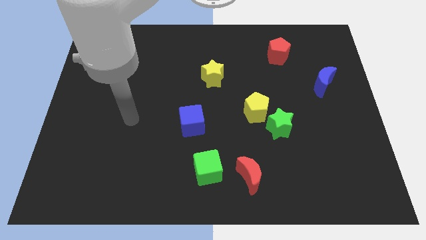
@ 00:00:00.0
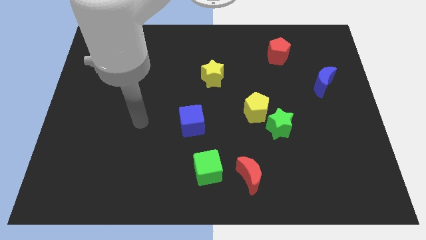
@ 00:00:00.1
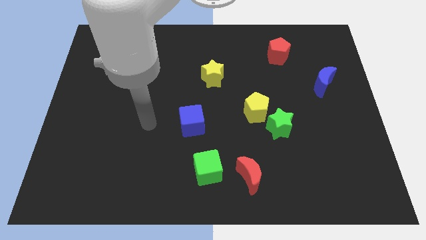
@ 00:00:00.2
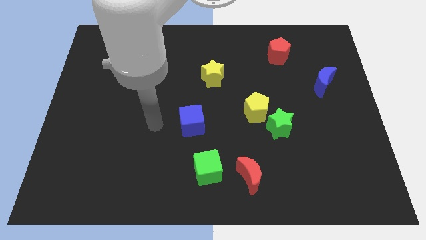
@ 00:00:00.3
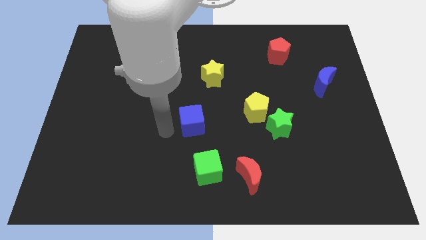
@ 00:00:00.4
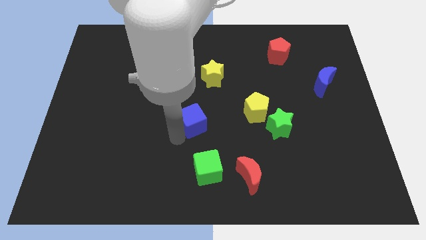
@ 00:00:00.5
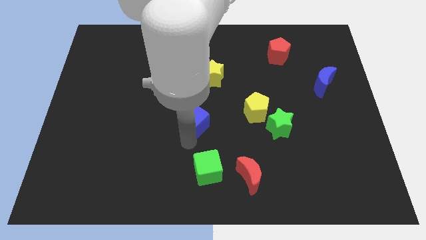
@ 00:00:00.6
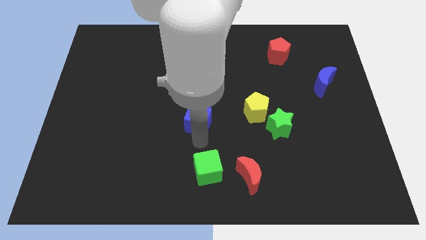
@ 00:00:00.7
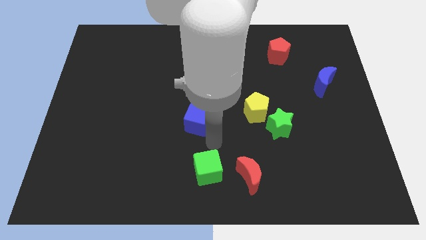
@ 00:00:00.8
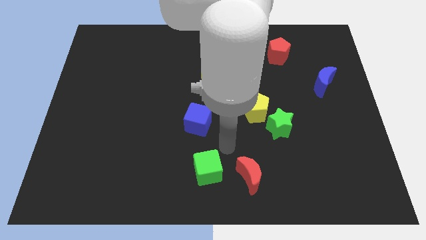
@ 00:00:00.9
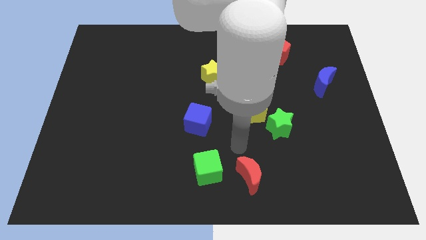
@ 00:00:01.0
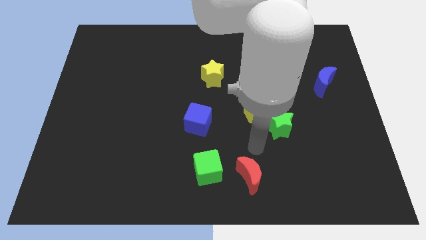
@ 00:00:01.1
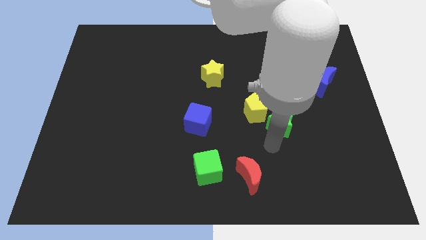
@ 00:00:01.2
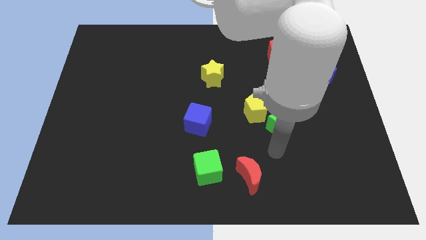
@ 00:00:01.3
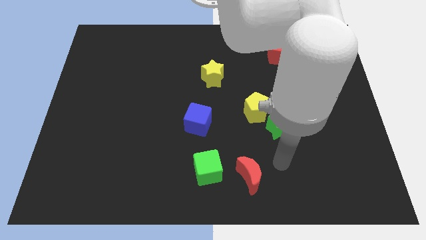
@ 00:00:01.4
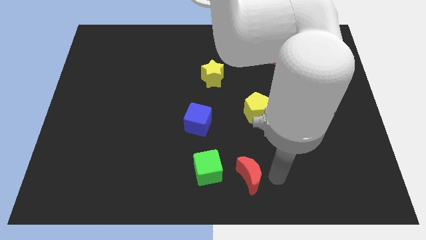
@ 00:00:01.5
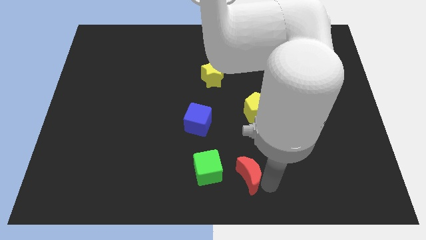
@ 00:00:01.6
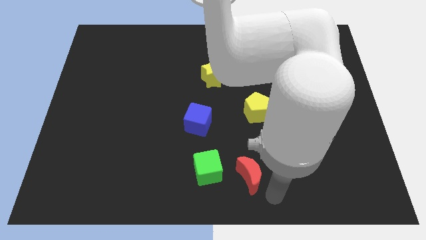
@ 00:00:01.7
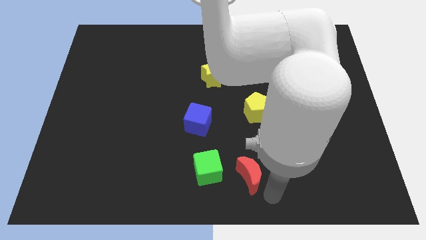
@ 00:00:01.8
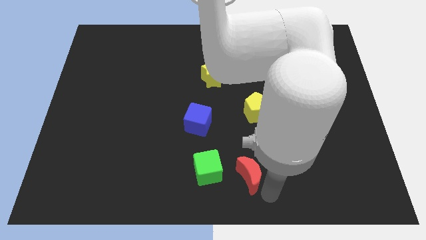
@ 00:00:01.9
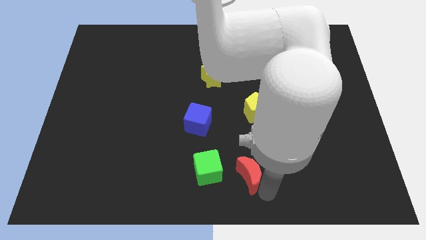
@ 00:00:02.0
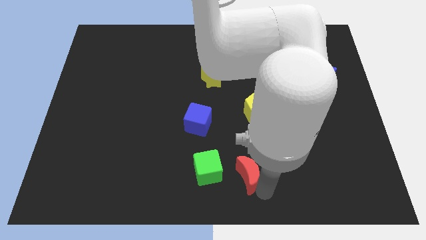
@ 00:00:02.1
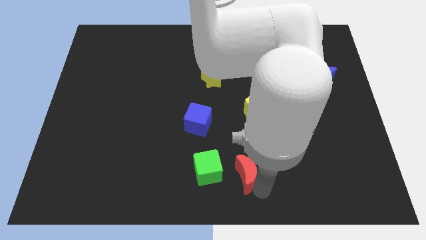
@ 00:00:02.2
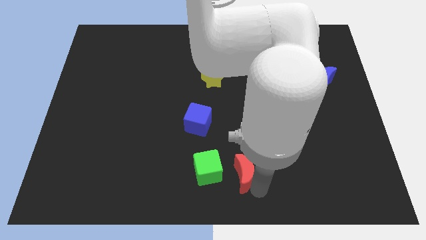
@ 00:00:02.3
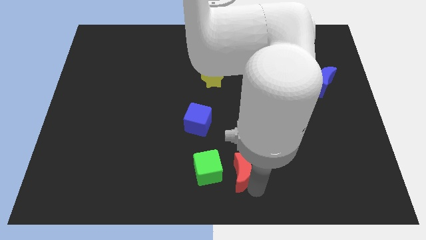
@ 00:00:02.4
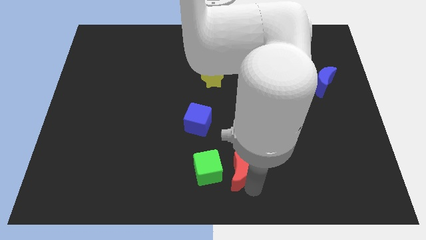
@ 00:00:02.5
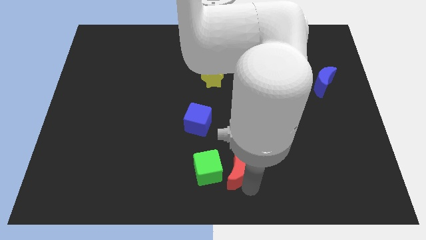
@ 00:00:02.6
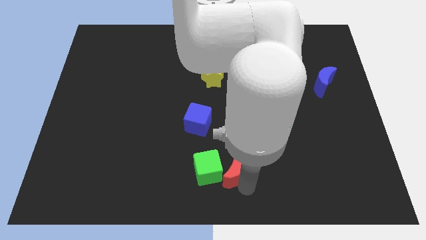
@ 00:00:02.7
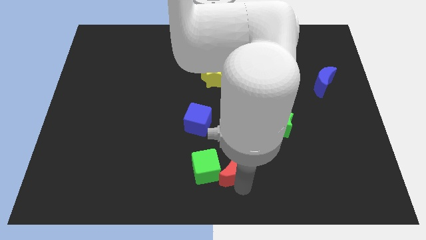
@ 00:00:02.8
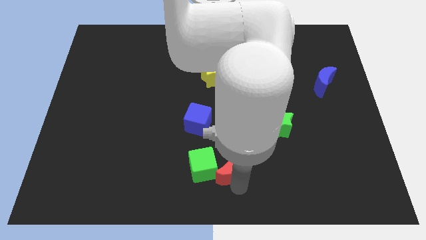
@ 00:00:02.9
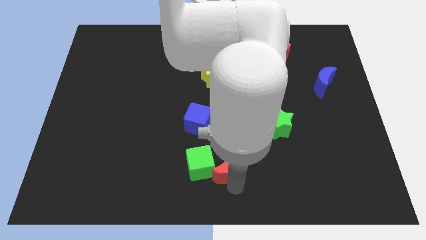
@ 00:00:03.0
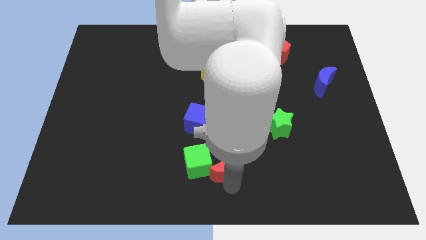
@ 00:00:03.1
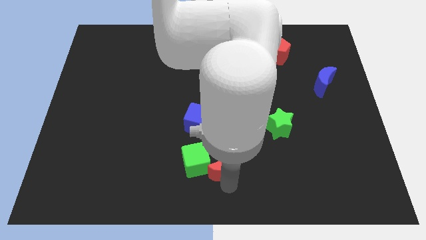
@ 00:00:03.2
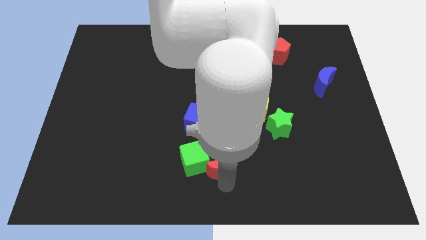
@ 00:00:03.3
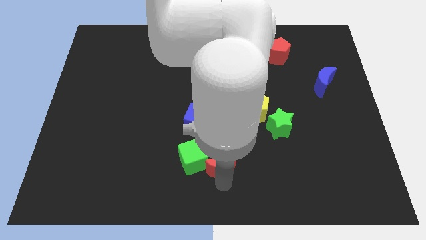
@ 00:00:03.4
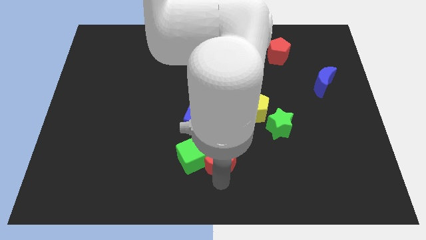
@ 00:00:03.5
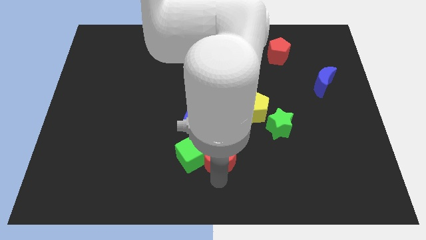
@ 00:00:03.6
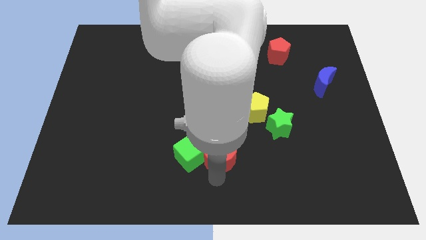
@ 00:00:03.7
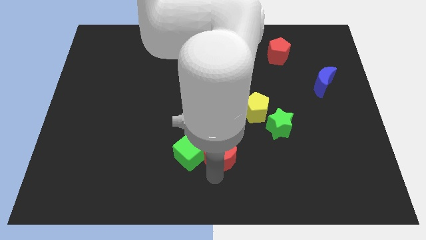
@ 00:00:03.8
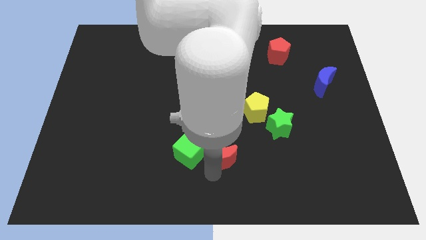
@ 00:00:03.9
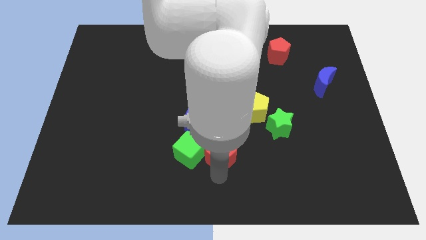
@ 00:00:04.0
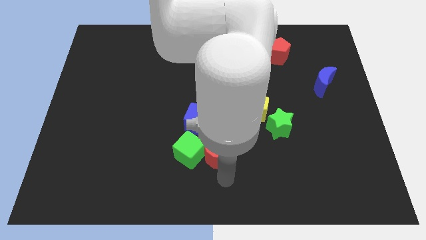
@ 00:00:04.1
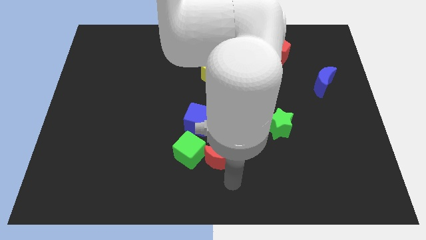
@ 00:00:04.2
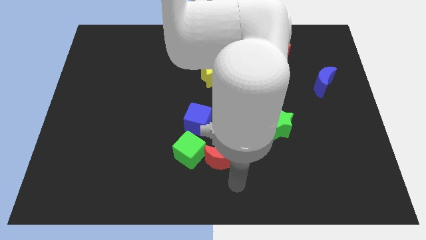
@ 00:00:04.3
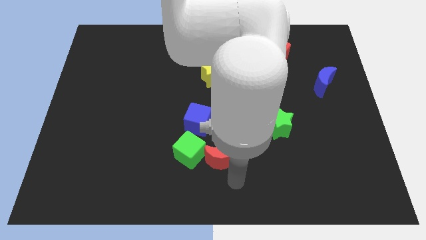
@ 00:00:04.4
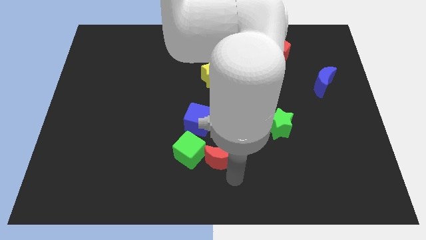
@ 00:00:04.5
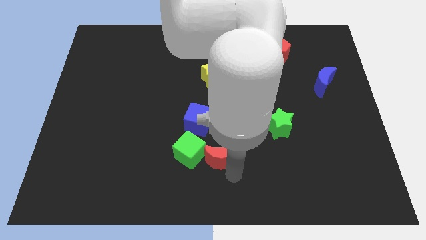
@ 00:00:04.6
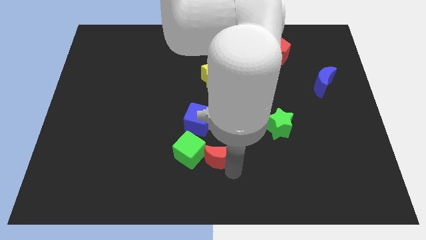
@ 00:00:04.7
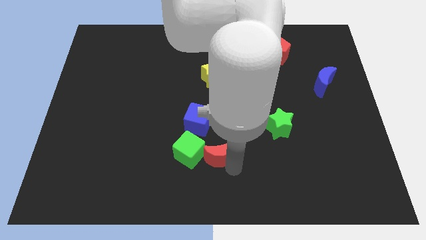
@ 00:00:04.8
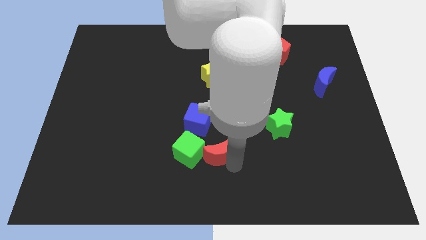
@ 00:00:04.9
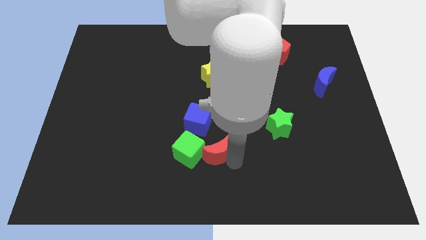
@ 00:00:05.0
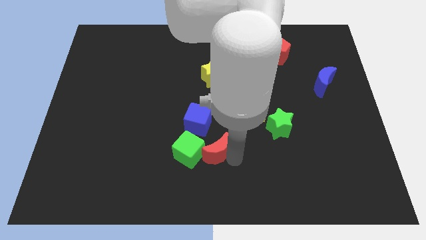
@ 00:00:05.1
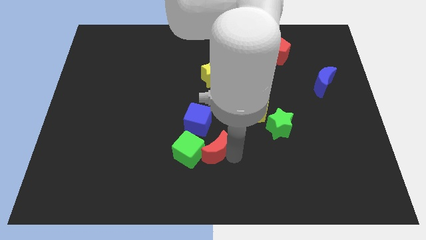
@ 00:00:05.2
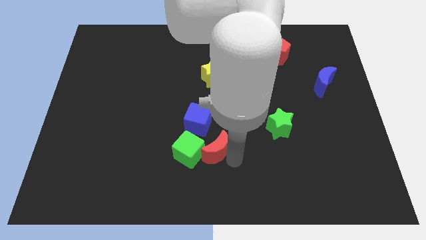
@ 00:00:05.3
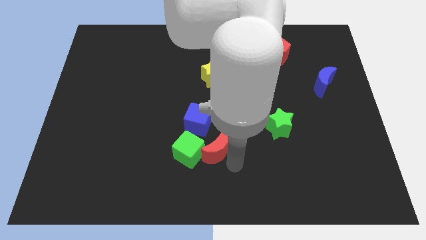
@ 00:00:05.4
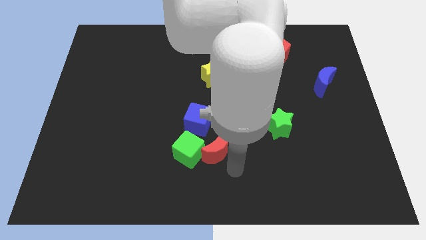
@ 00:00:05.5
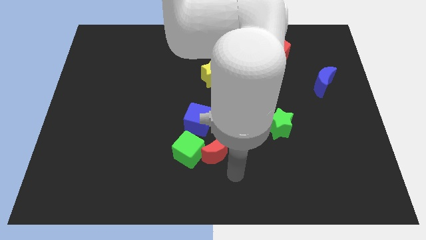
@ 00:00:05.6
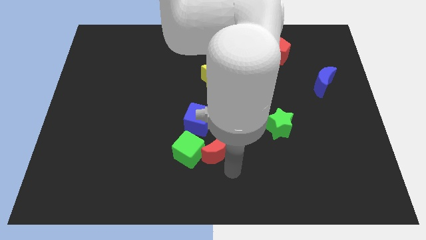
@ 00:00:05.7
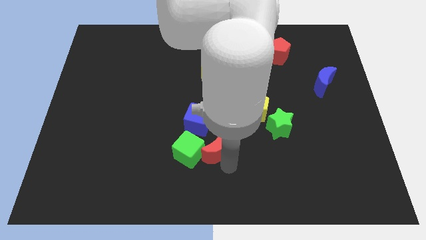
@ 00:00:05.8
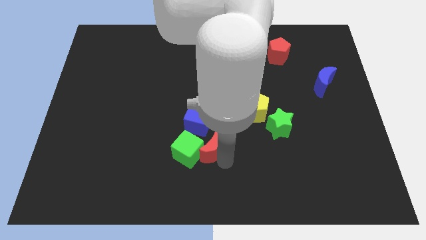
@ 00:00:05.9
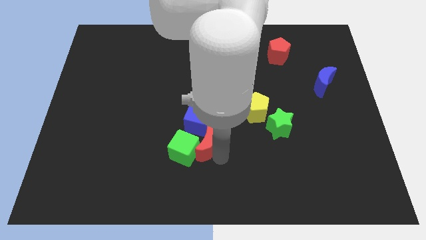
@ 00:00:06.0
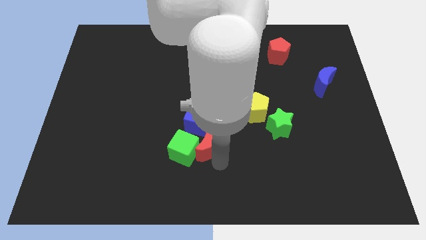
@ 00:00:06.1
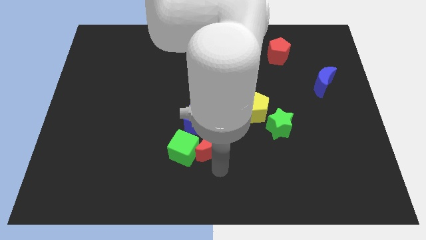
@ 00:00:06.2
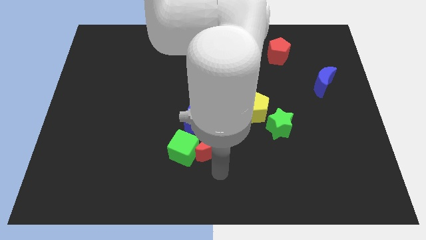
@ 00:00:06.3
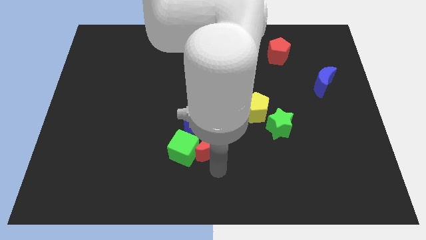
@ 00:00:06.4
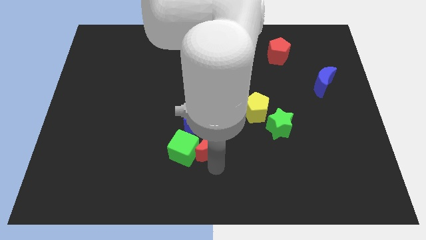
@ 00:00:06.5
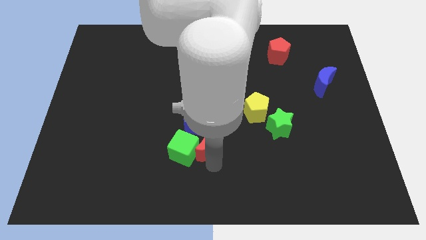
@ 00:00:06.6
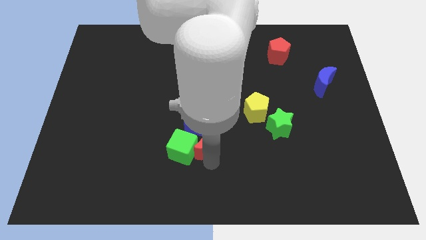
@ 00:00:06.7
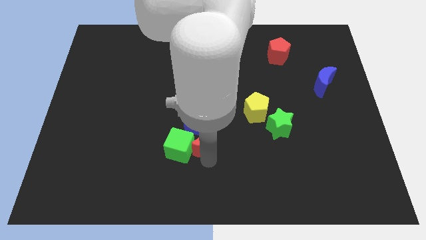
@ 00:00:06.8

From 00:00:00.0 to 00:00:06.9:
put the red moon to the blue cube
